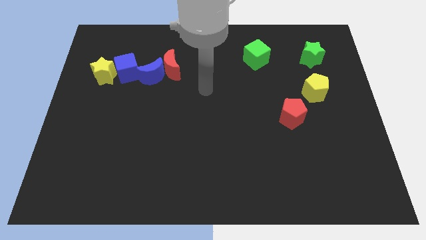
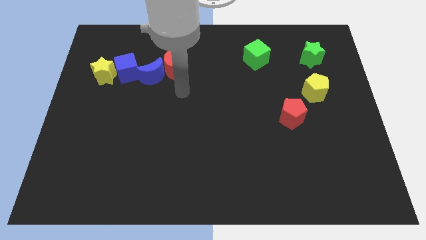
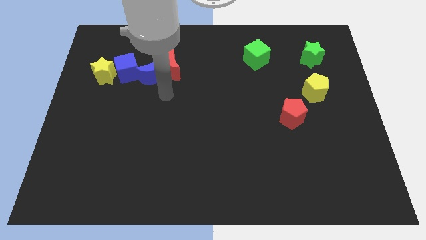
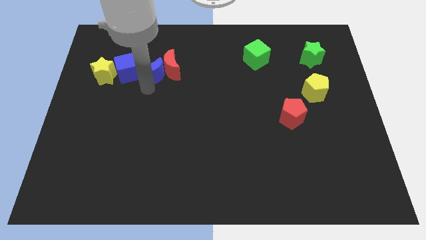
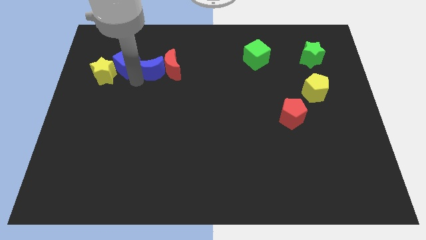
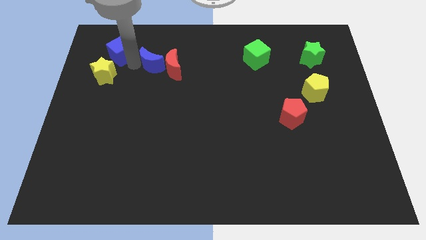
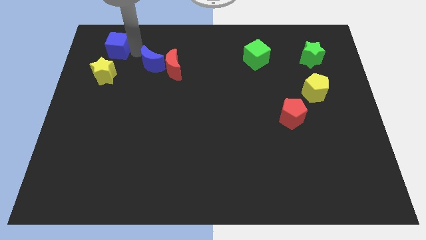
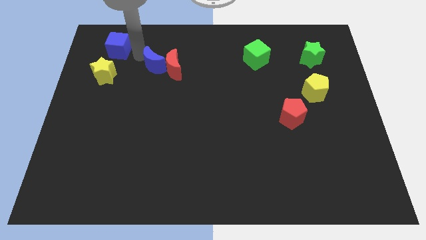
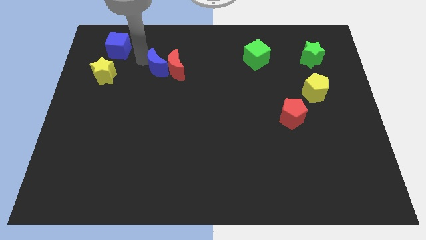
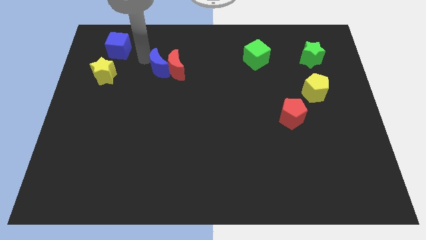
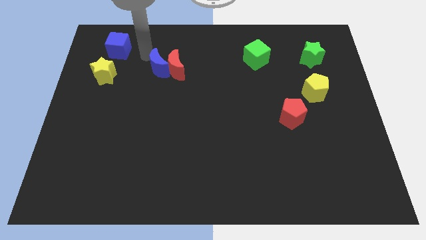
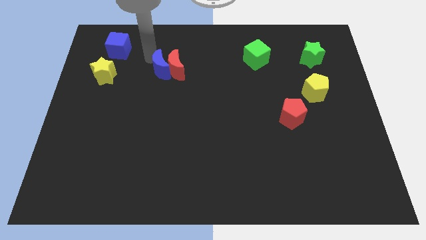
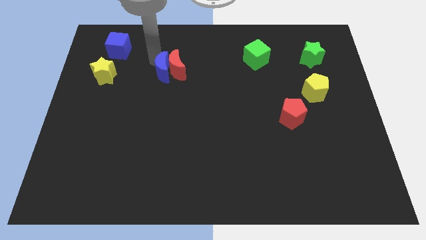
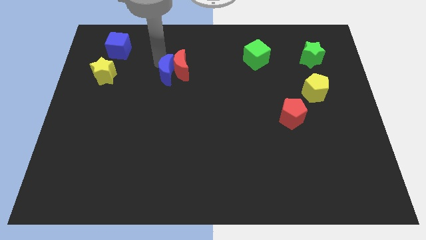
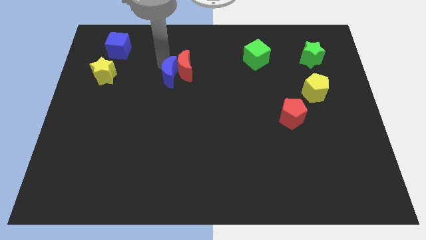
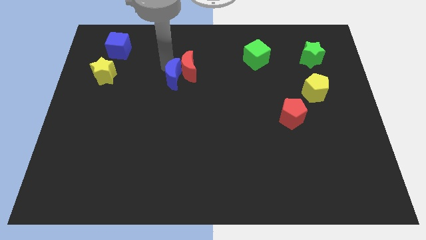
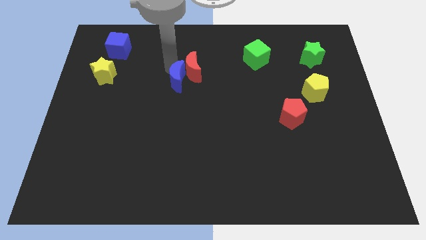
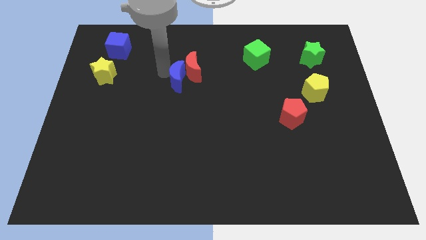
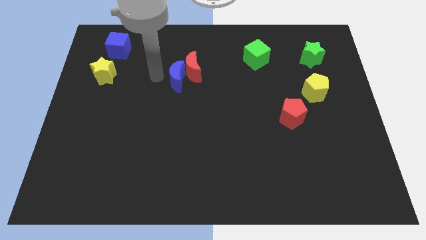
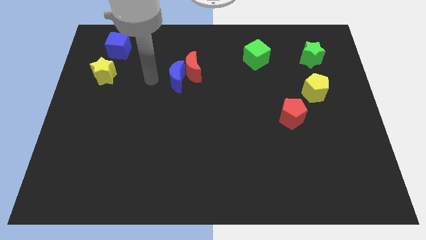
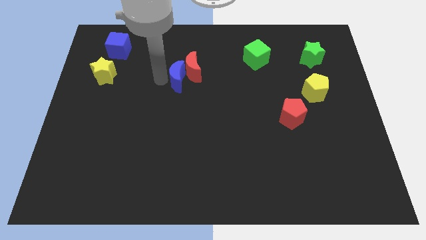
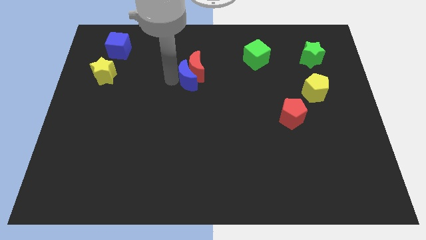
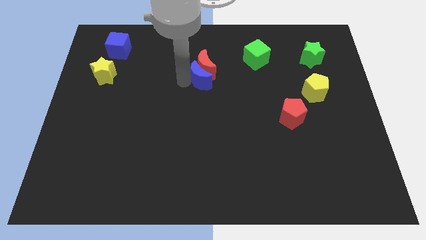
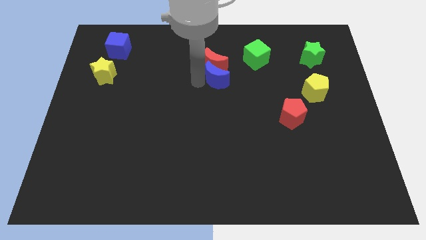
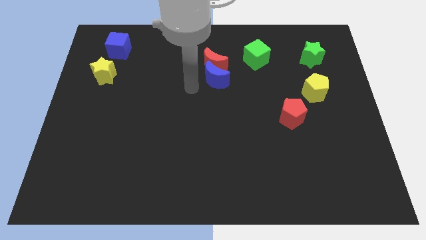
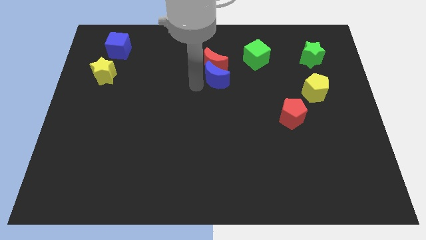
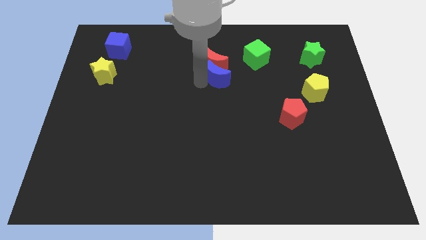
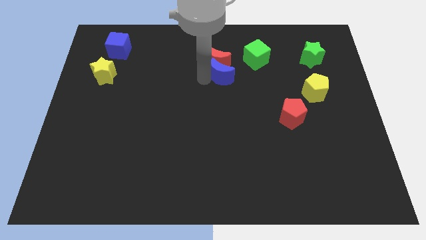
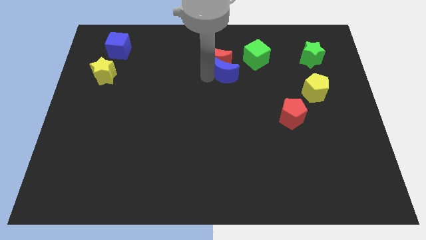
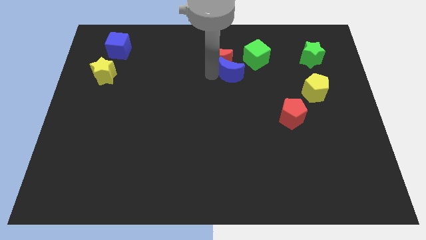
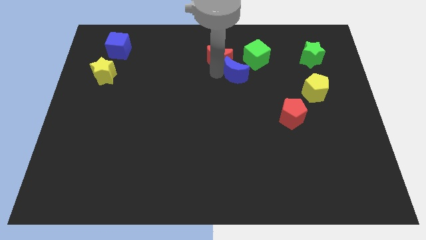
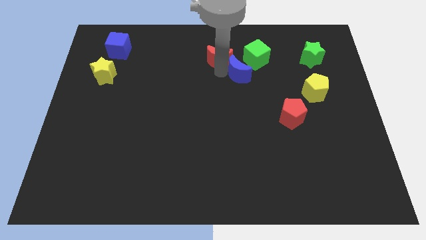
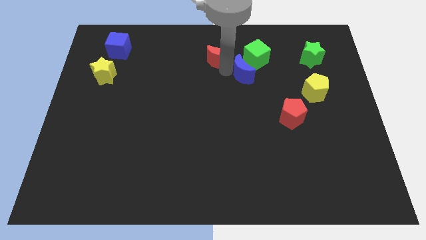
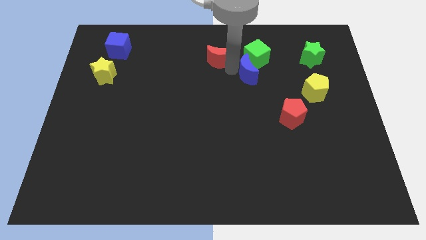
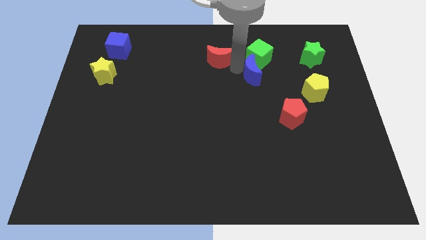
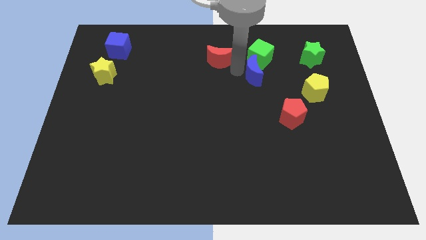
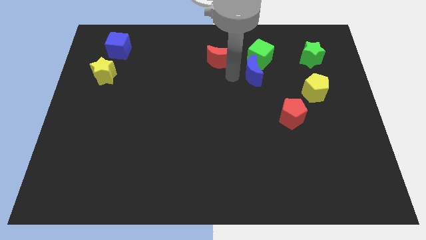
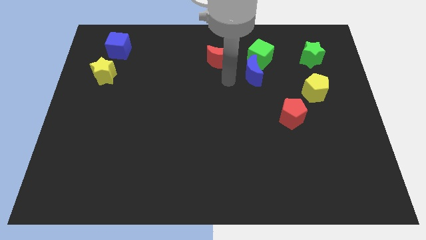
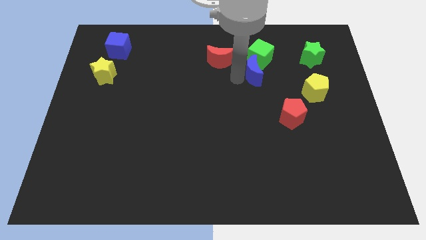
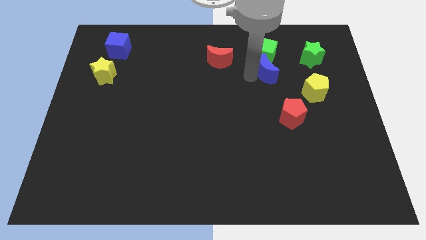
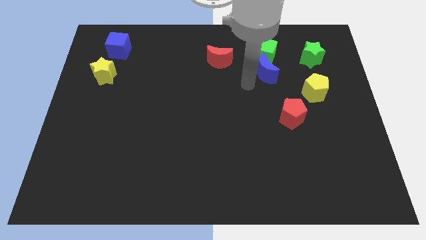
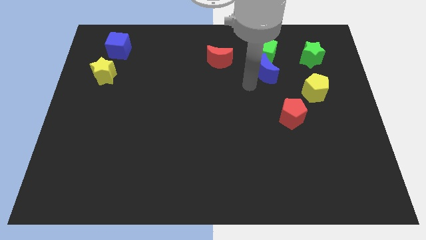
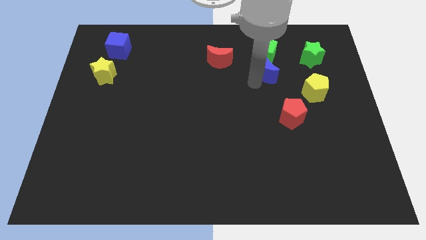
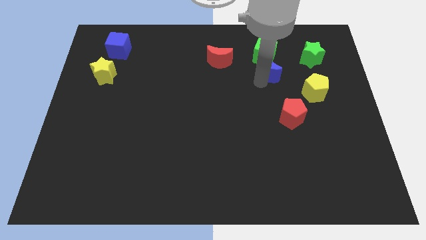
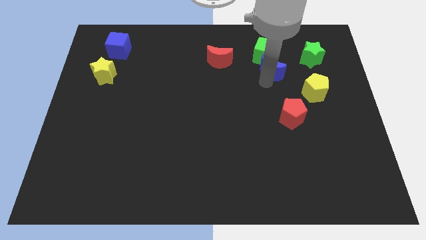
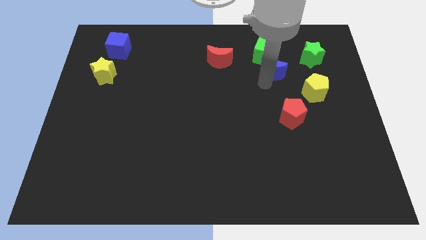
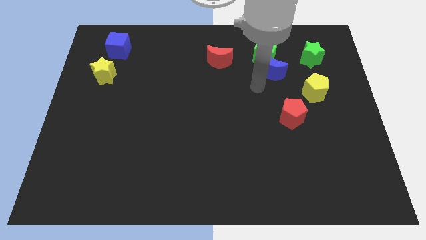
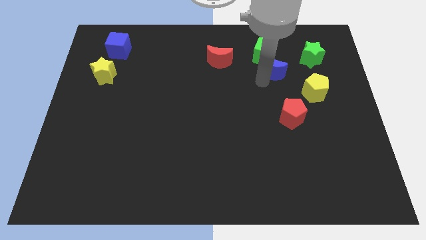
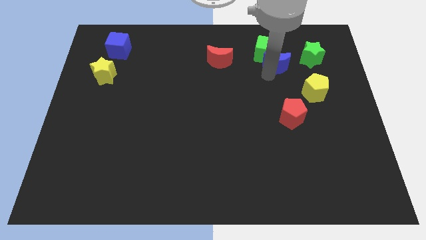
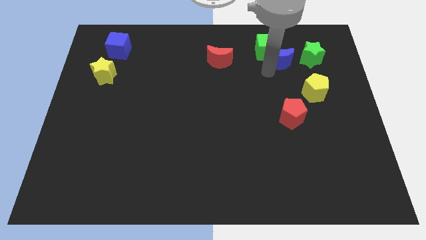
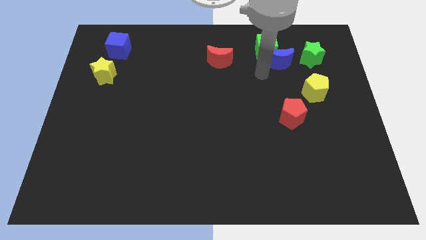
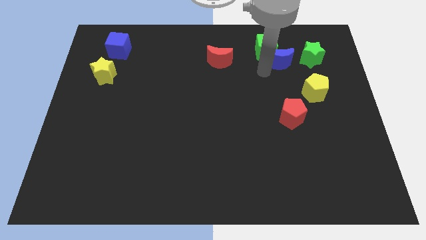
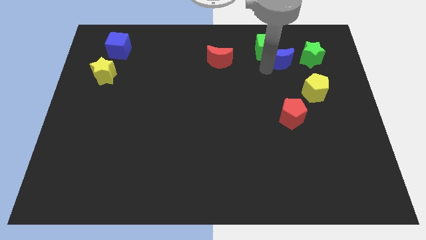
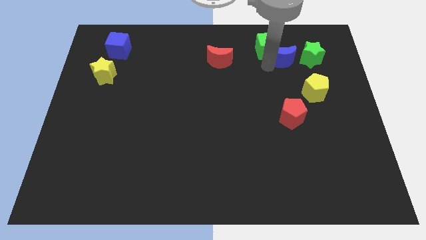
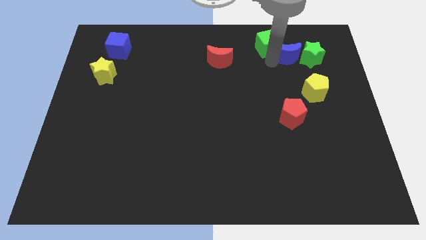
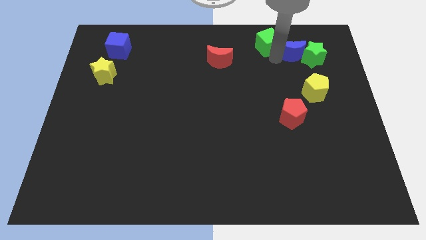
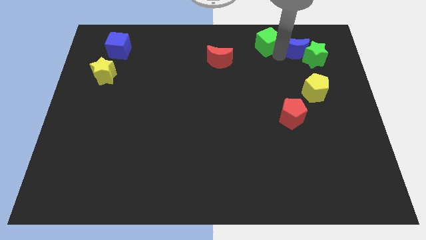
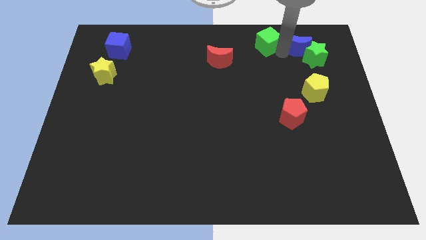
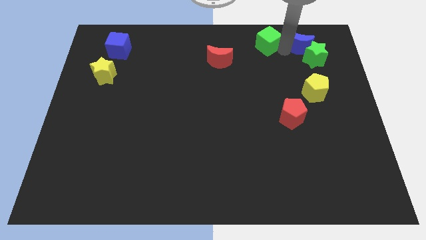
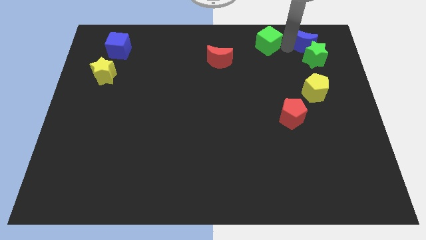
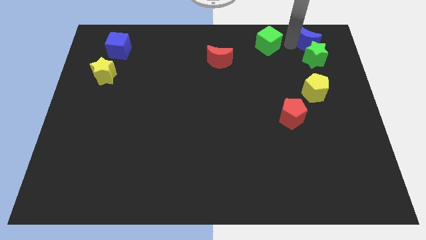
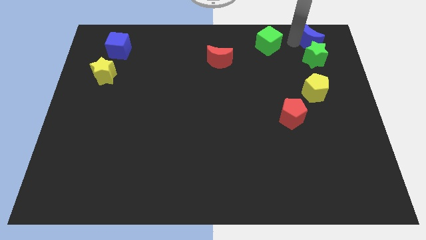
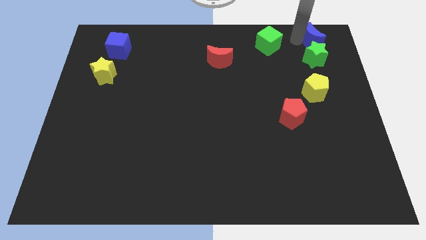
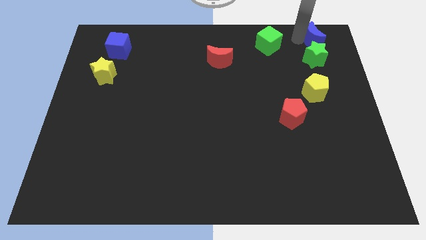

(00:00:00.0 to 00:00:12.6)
push the blue moon to the top right corner
